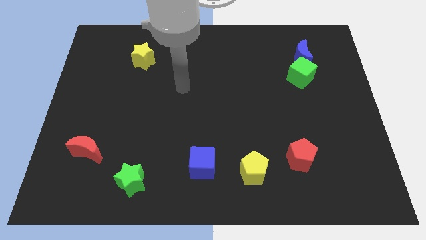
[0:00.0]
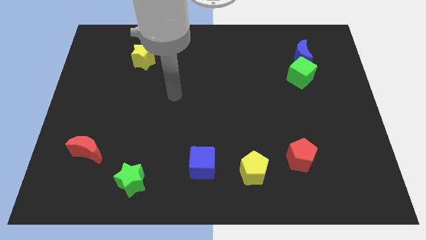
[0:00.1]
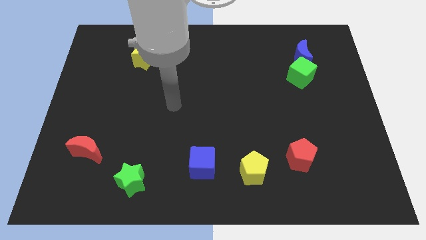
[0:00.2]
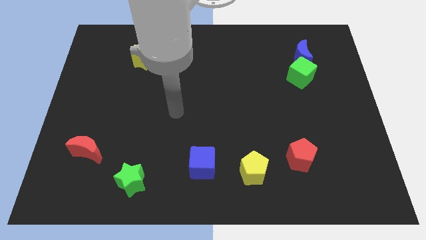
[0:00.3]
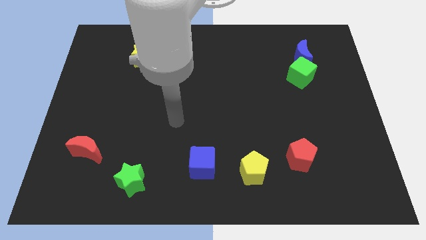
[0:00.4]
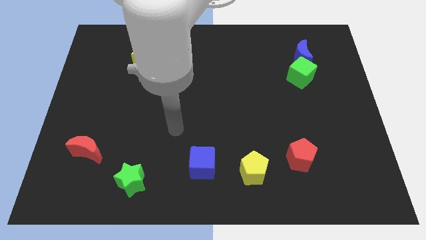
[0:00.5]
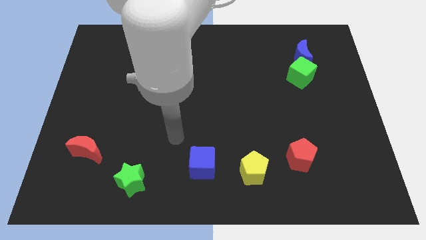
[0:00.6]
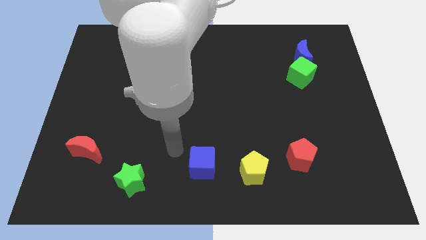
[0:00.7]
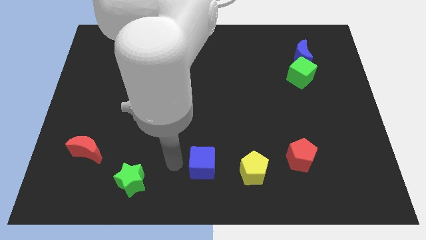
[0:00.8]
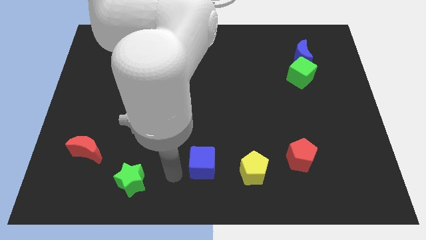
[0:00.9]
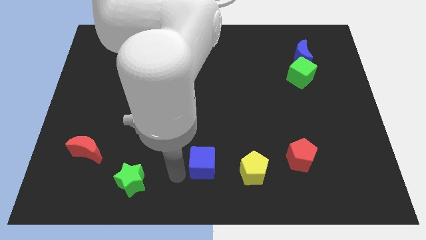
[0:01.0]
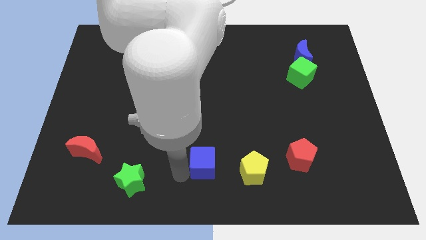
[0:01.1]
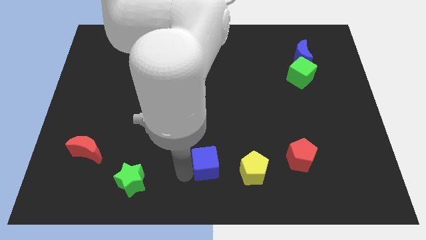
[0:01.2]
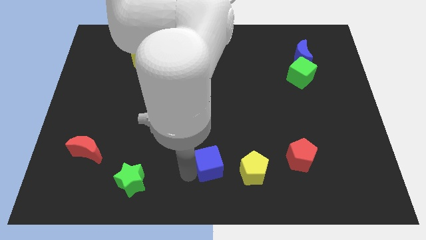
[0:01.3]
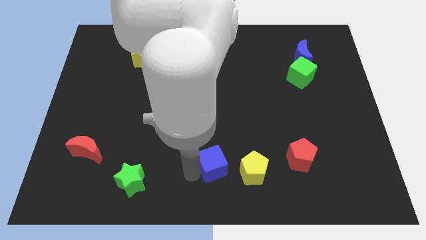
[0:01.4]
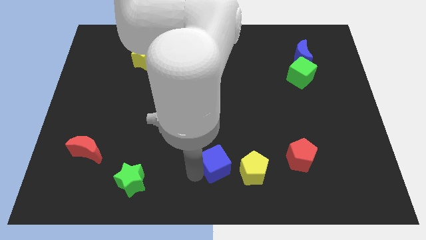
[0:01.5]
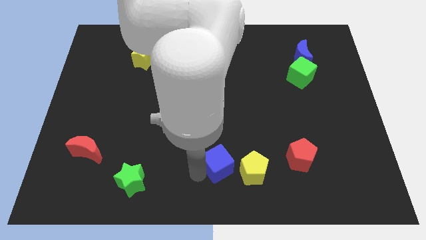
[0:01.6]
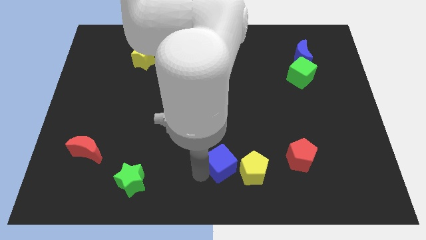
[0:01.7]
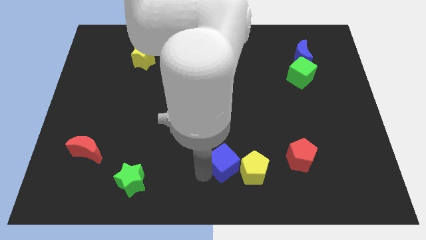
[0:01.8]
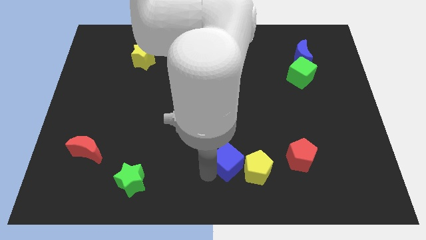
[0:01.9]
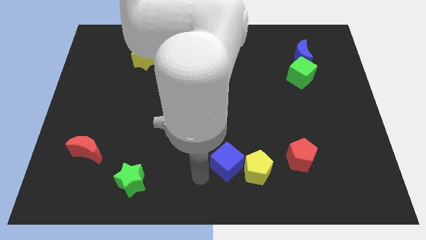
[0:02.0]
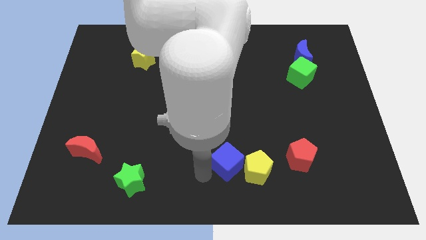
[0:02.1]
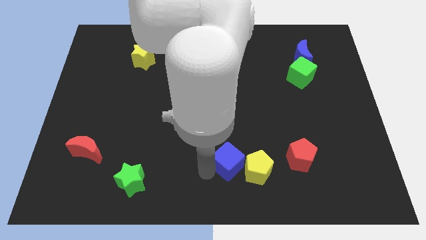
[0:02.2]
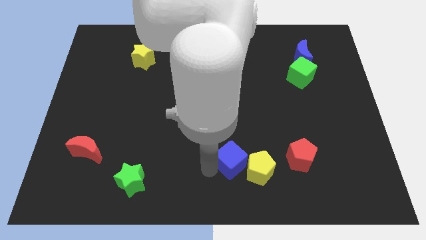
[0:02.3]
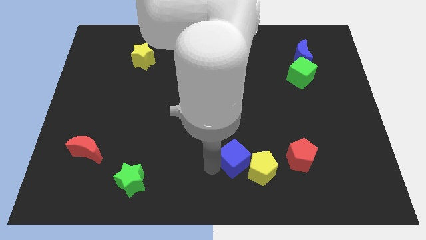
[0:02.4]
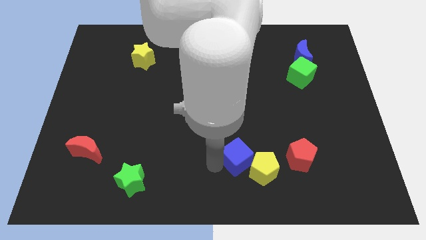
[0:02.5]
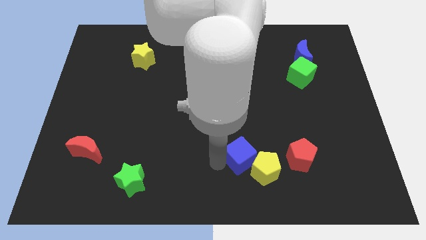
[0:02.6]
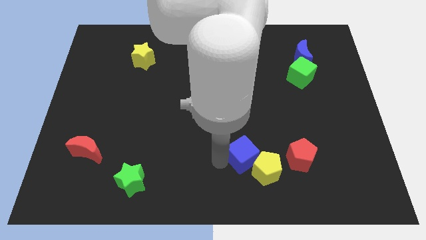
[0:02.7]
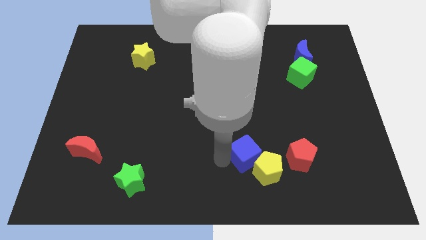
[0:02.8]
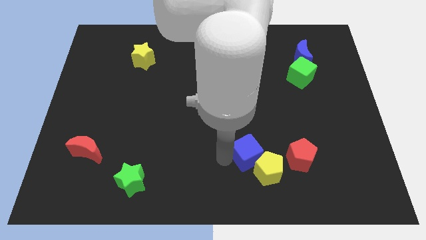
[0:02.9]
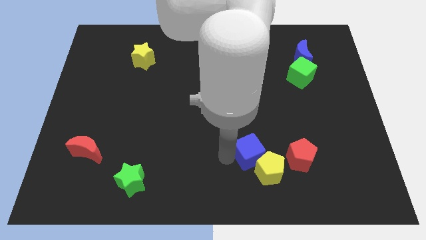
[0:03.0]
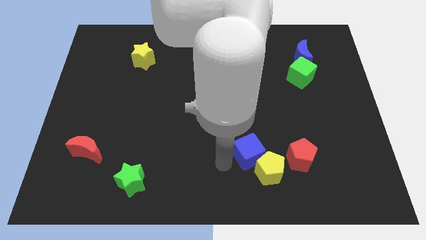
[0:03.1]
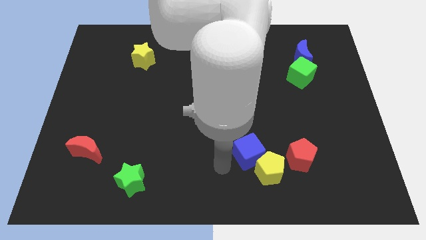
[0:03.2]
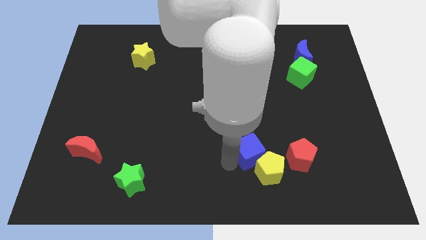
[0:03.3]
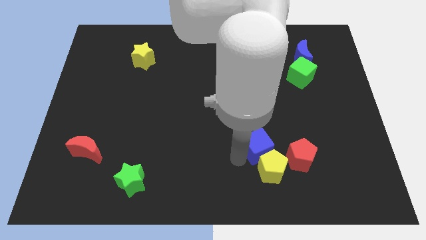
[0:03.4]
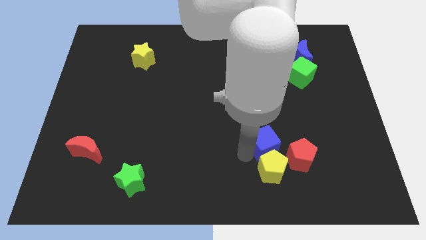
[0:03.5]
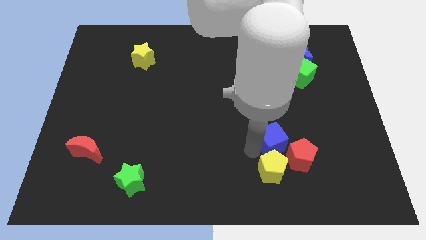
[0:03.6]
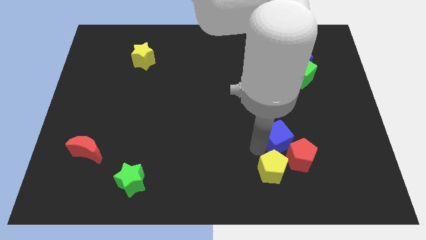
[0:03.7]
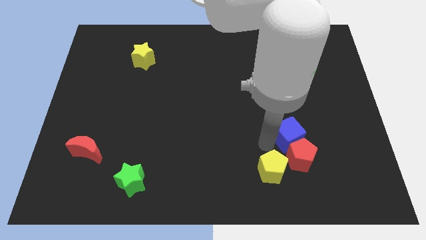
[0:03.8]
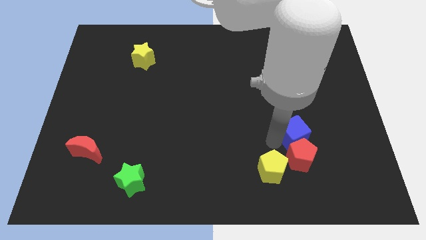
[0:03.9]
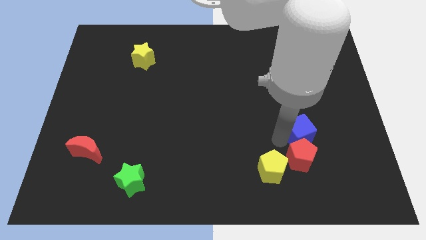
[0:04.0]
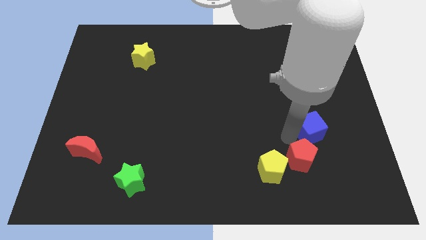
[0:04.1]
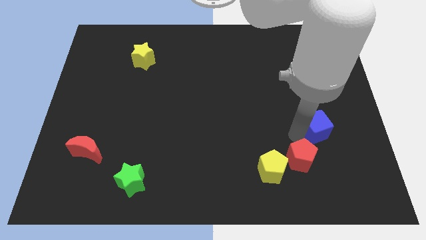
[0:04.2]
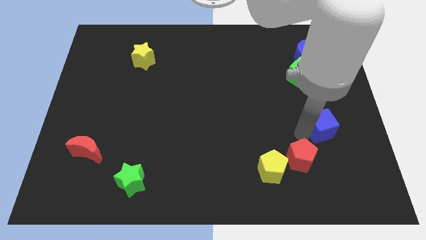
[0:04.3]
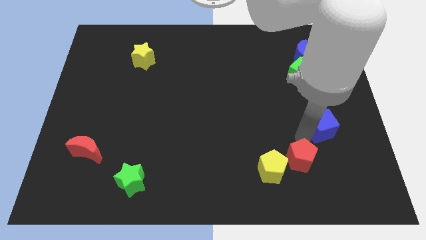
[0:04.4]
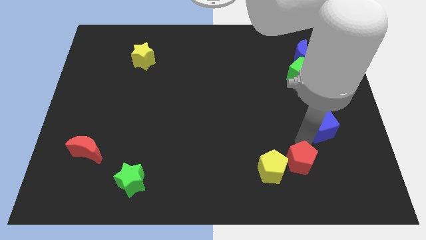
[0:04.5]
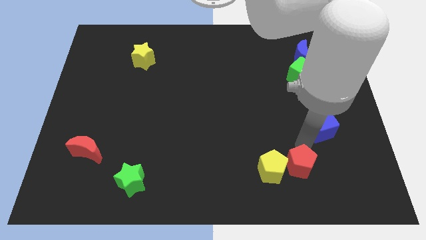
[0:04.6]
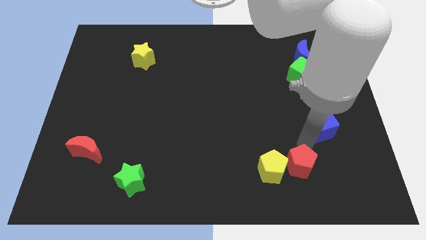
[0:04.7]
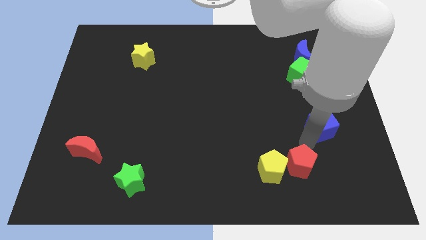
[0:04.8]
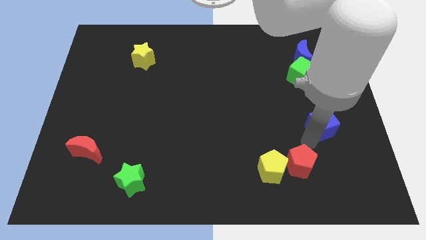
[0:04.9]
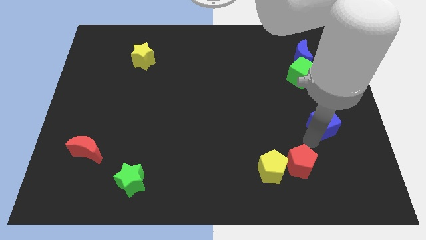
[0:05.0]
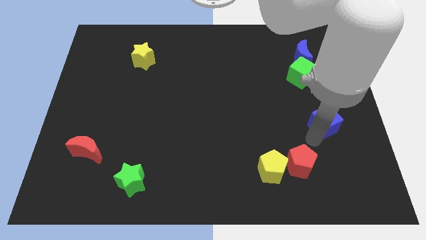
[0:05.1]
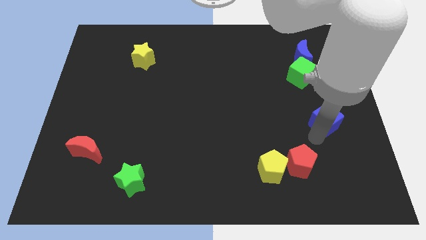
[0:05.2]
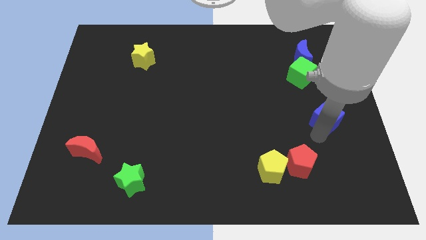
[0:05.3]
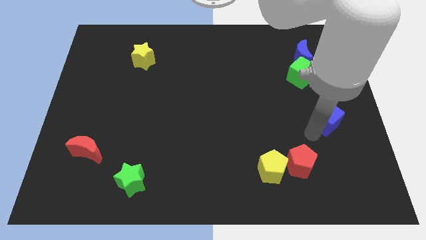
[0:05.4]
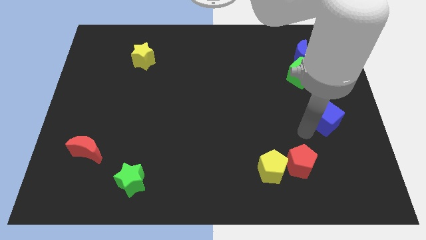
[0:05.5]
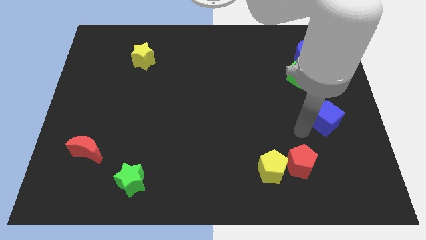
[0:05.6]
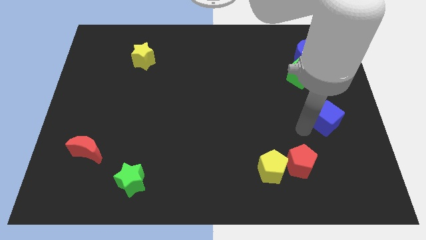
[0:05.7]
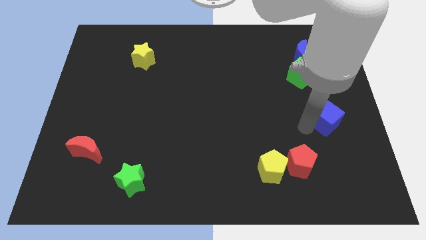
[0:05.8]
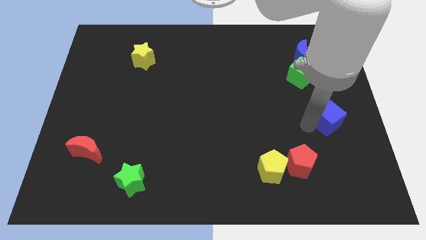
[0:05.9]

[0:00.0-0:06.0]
push the blue cube to the center right
